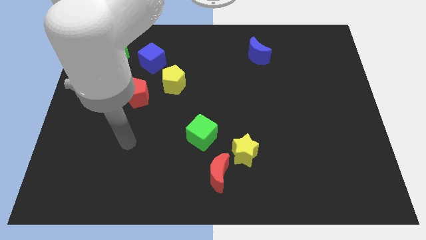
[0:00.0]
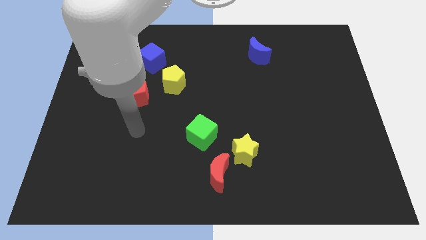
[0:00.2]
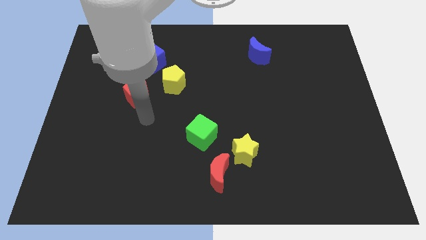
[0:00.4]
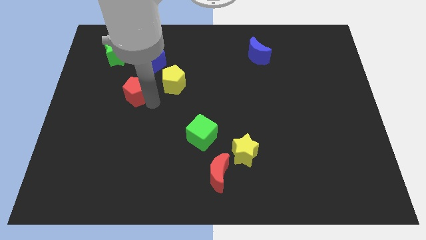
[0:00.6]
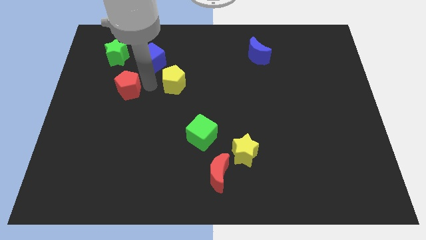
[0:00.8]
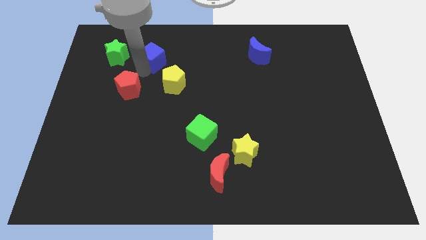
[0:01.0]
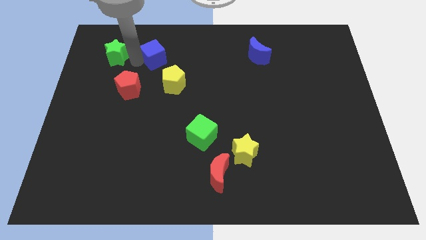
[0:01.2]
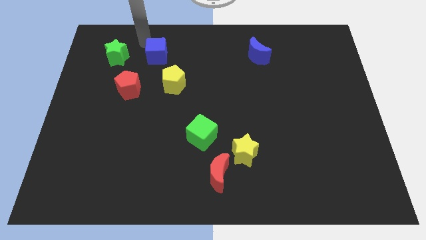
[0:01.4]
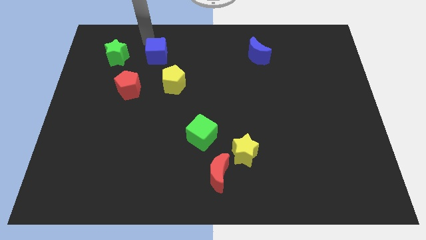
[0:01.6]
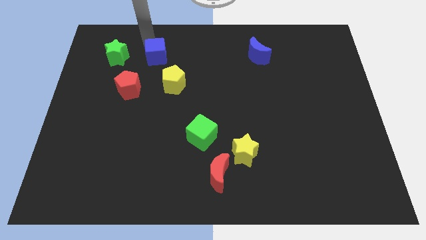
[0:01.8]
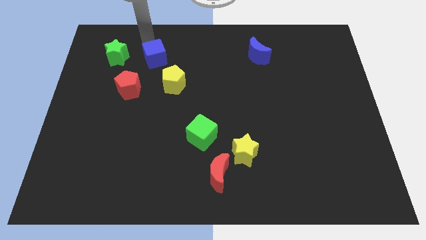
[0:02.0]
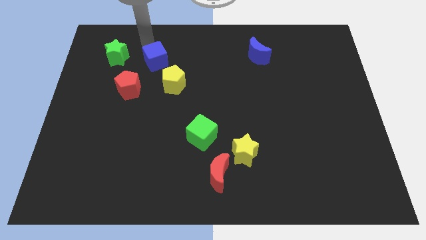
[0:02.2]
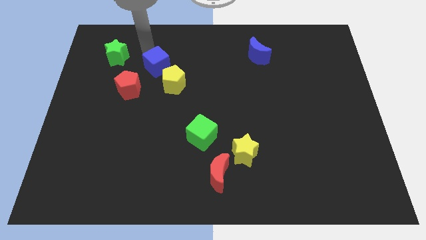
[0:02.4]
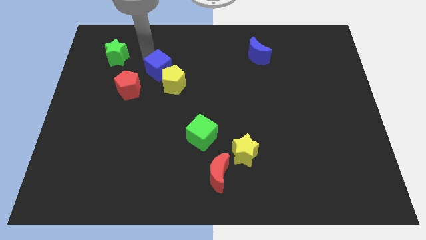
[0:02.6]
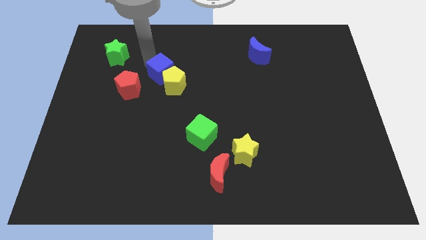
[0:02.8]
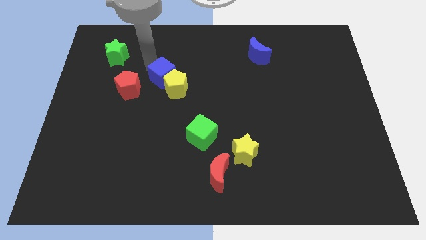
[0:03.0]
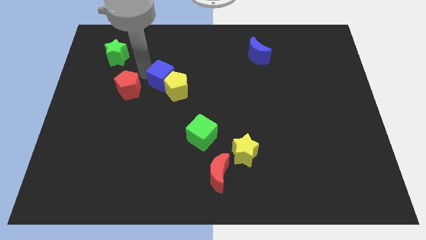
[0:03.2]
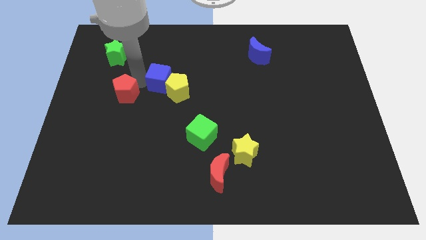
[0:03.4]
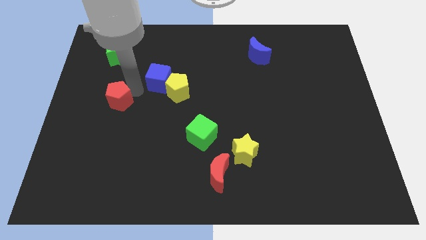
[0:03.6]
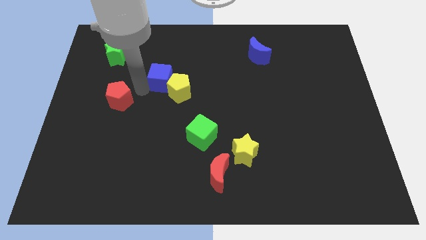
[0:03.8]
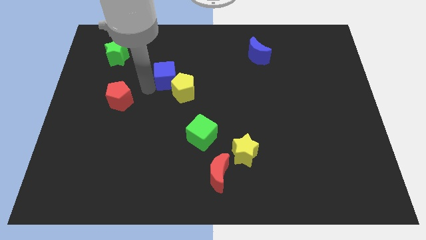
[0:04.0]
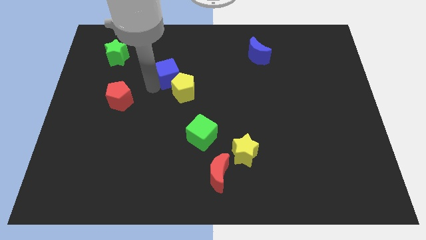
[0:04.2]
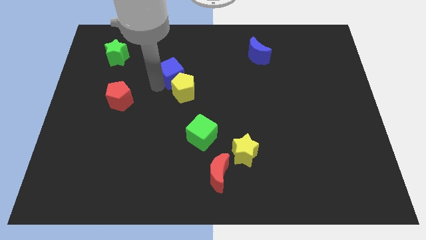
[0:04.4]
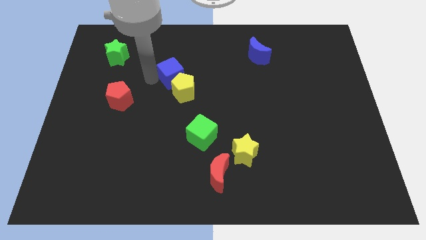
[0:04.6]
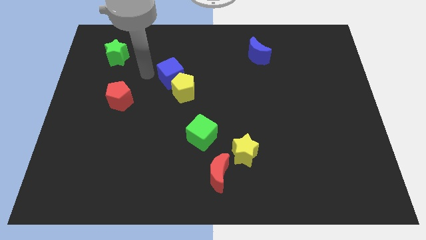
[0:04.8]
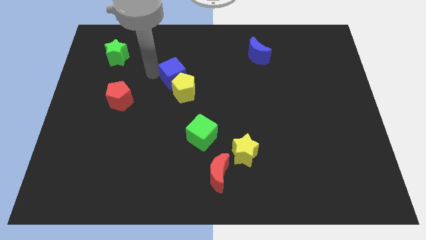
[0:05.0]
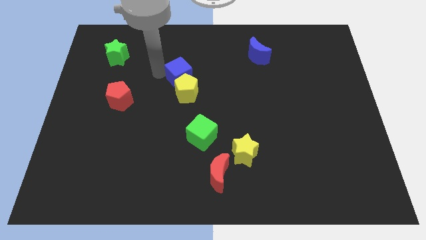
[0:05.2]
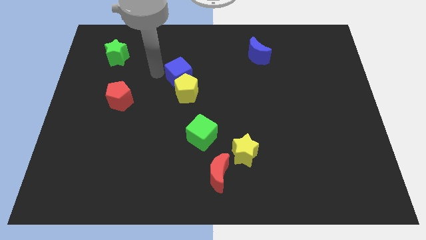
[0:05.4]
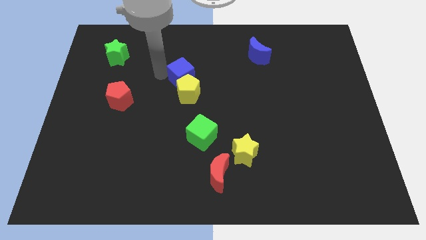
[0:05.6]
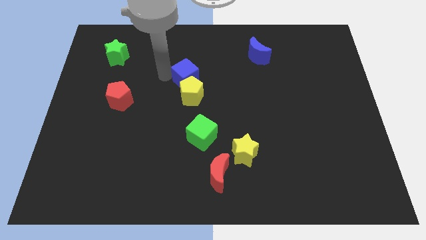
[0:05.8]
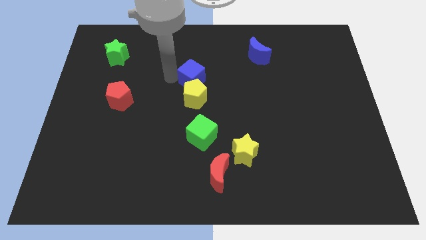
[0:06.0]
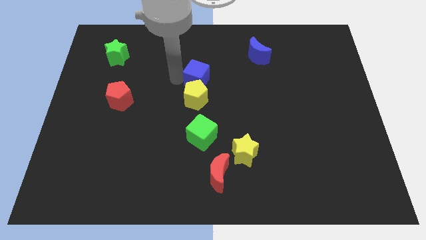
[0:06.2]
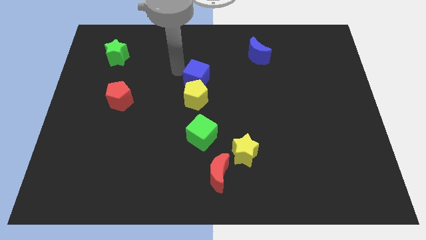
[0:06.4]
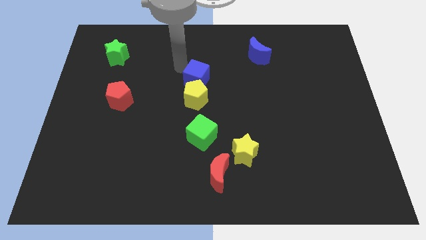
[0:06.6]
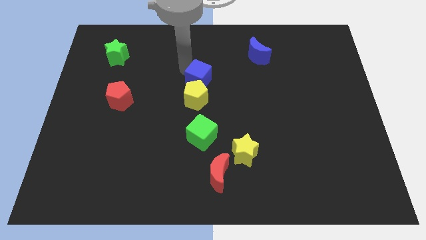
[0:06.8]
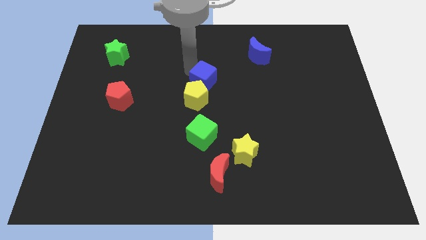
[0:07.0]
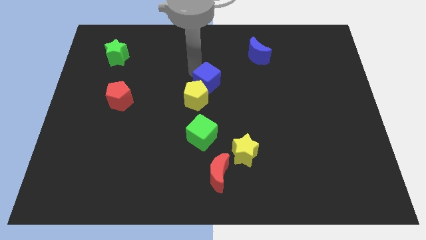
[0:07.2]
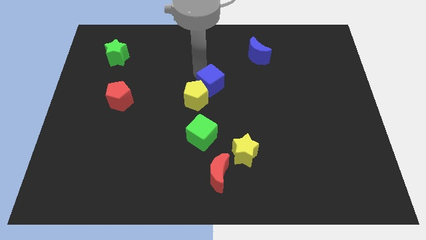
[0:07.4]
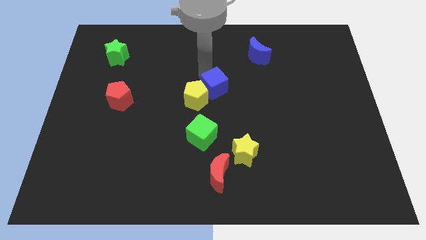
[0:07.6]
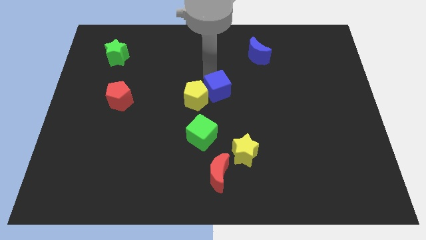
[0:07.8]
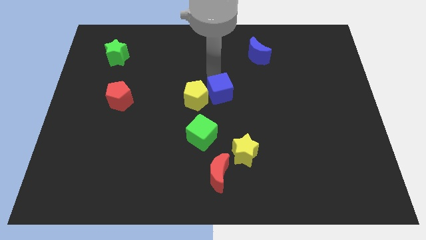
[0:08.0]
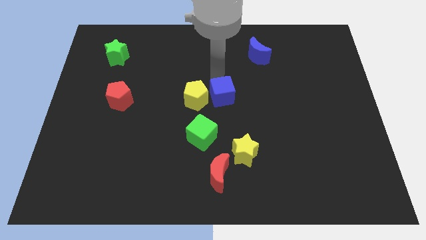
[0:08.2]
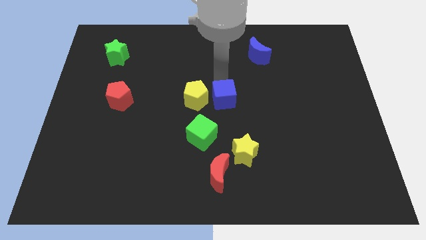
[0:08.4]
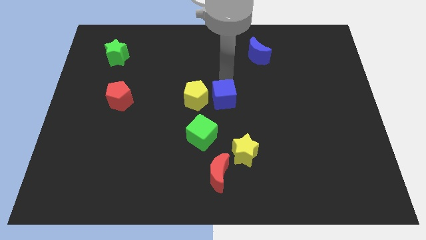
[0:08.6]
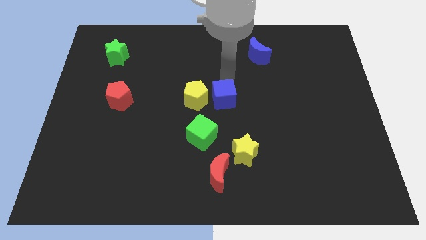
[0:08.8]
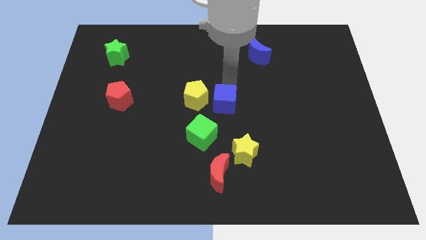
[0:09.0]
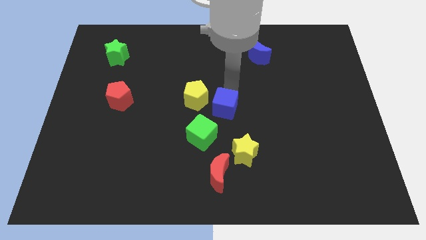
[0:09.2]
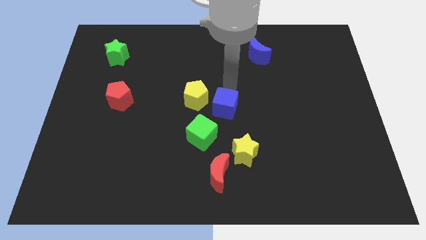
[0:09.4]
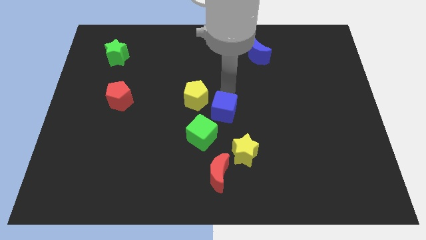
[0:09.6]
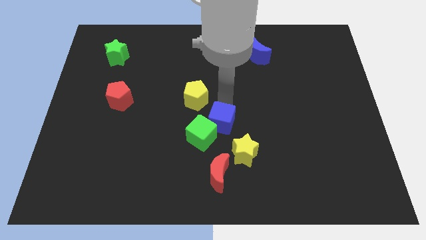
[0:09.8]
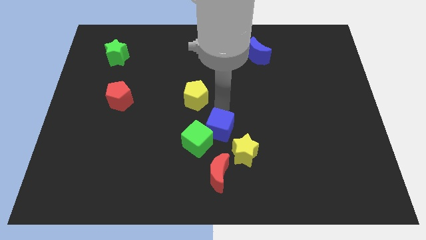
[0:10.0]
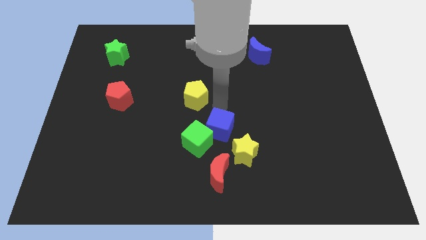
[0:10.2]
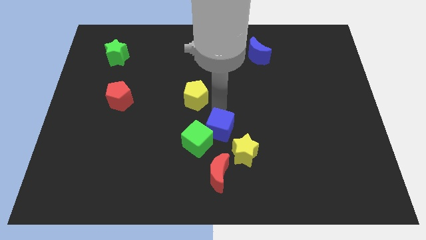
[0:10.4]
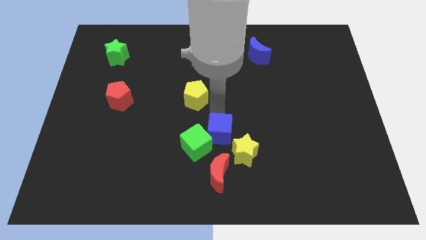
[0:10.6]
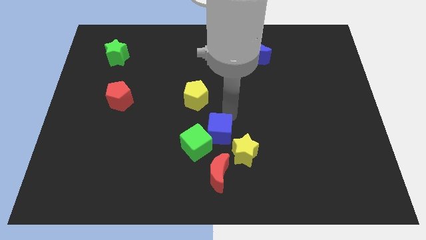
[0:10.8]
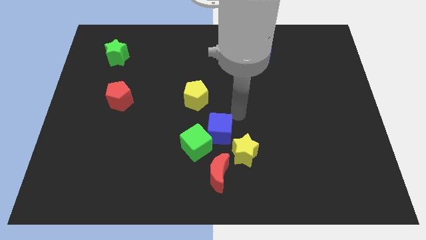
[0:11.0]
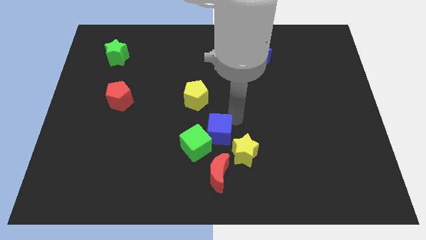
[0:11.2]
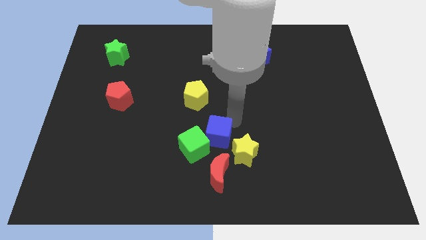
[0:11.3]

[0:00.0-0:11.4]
move the blue cube left of the yellow star

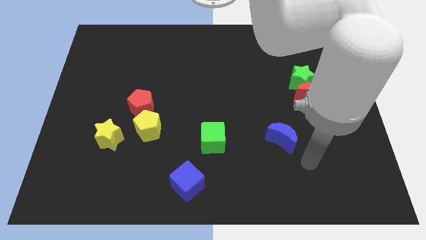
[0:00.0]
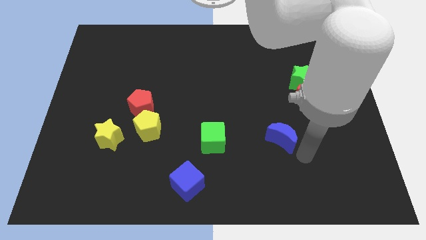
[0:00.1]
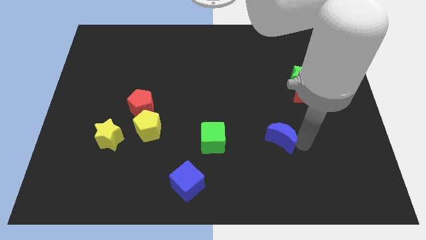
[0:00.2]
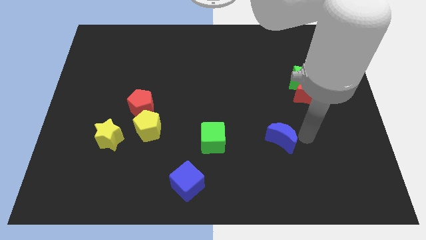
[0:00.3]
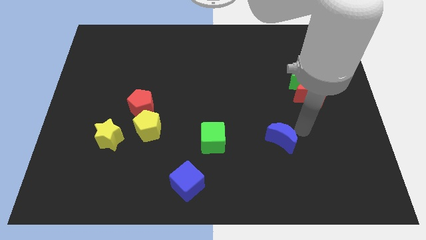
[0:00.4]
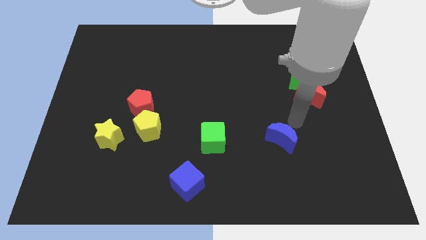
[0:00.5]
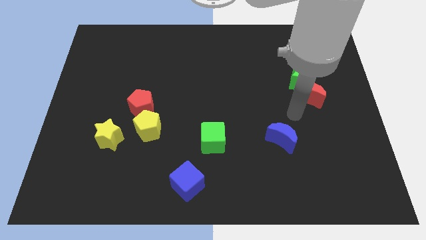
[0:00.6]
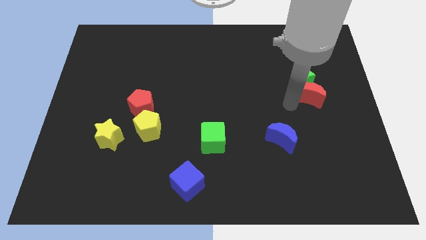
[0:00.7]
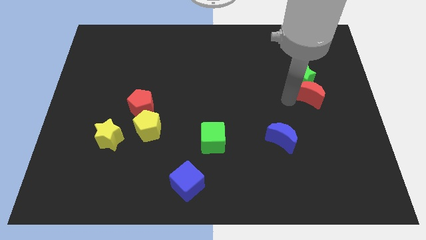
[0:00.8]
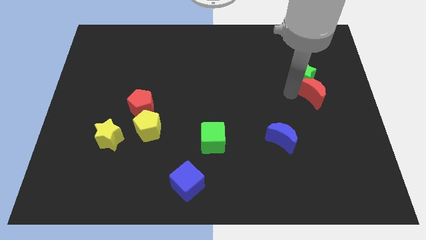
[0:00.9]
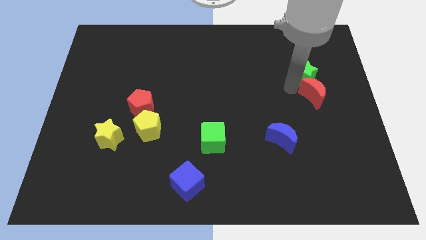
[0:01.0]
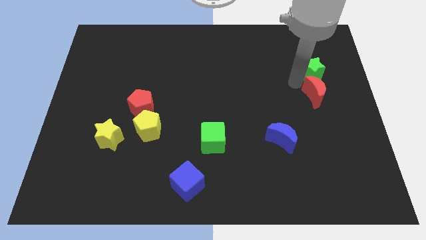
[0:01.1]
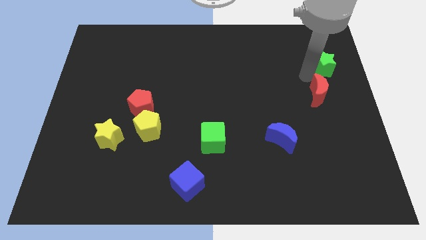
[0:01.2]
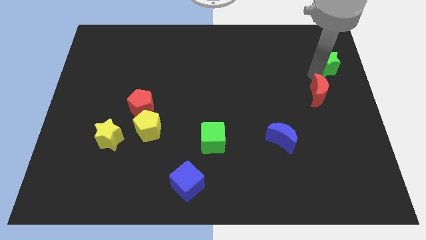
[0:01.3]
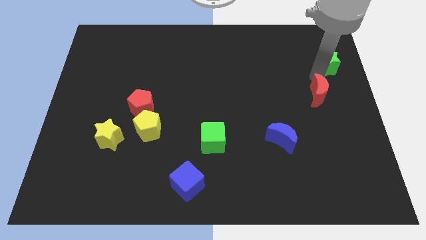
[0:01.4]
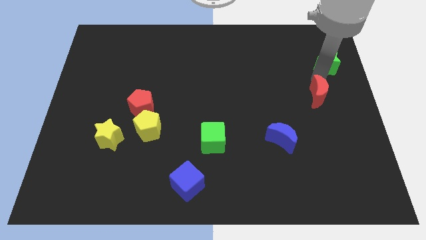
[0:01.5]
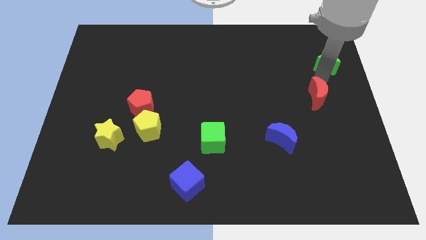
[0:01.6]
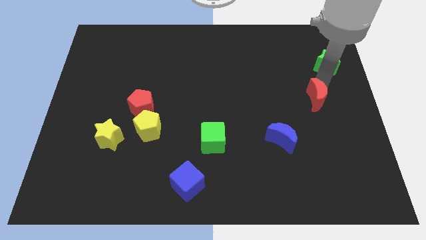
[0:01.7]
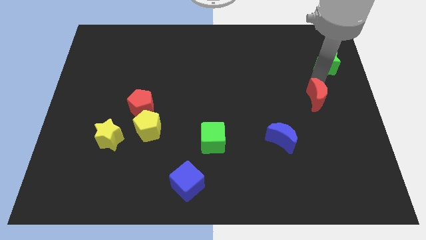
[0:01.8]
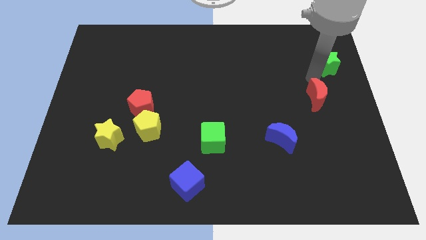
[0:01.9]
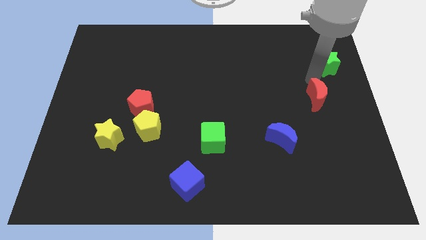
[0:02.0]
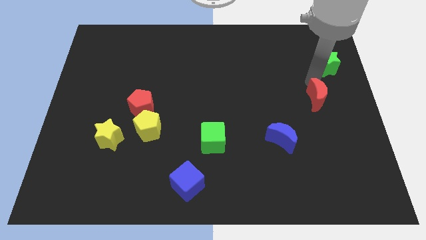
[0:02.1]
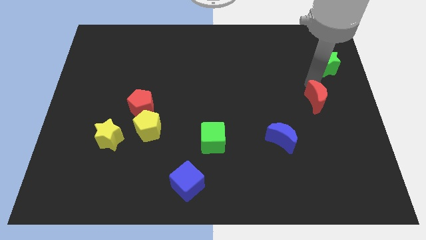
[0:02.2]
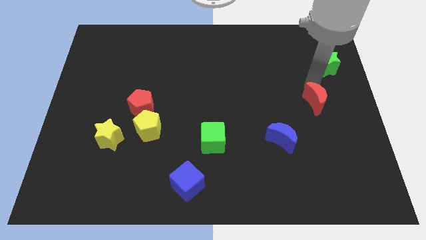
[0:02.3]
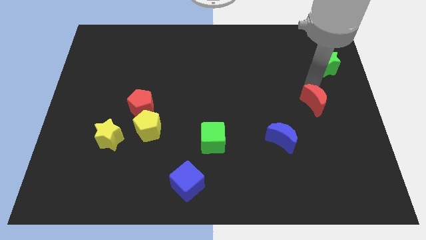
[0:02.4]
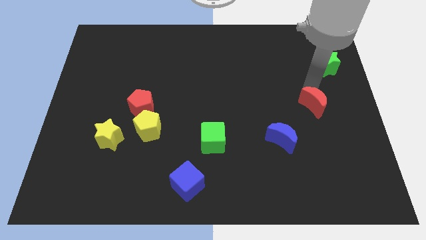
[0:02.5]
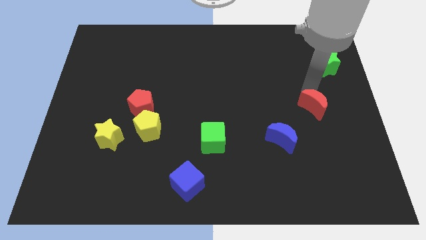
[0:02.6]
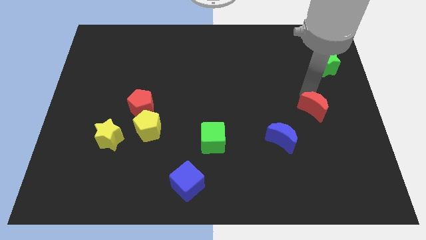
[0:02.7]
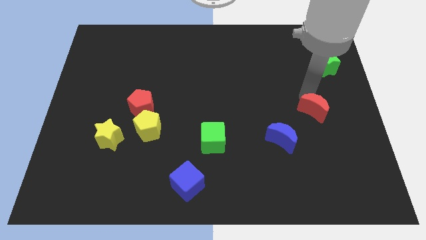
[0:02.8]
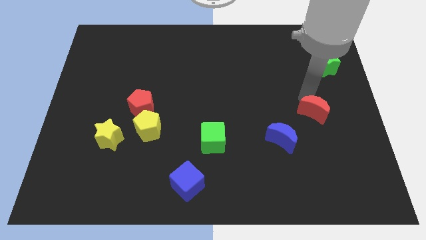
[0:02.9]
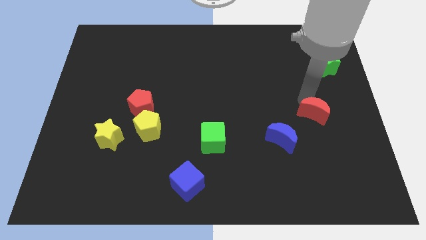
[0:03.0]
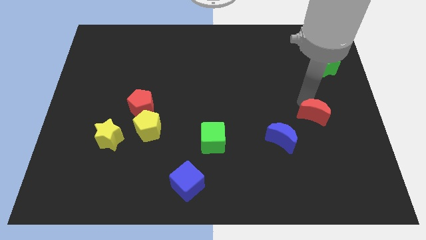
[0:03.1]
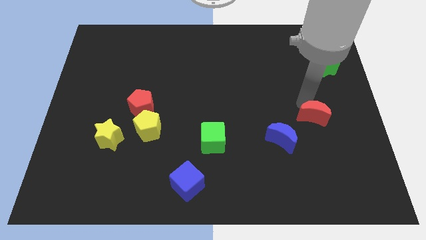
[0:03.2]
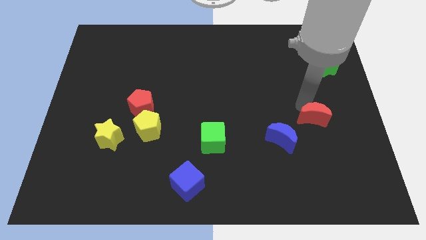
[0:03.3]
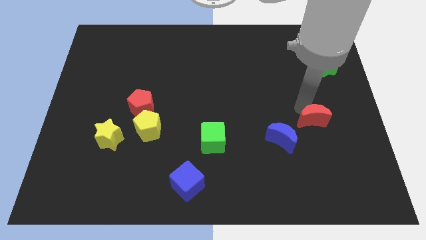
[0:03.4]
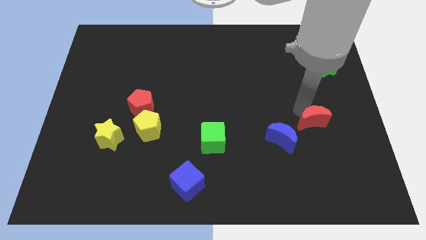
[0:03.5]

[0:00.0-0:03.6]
slide the red moon right of the blue moon
